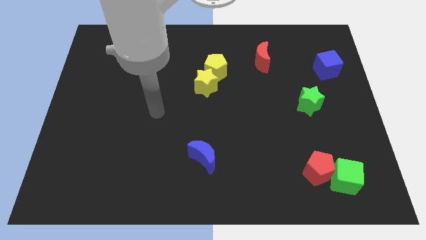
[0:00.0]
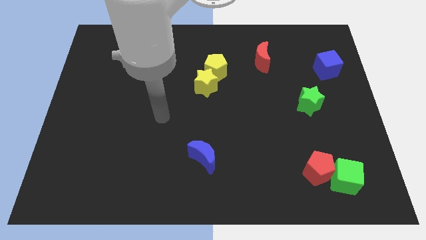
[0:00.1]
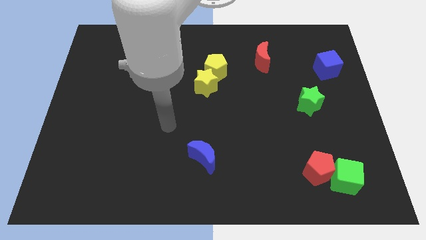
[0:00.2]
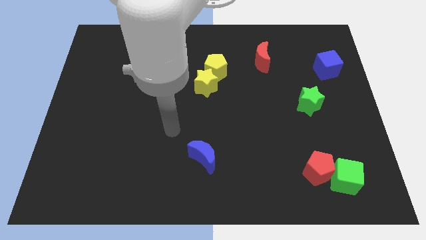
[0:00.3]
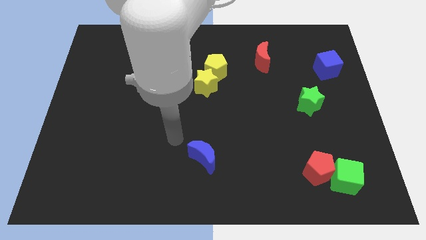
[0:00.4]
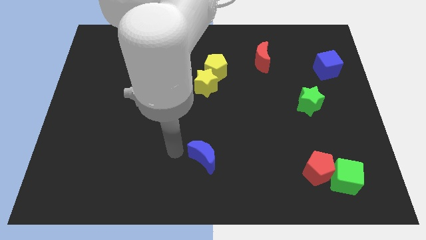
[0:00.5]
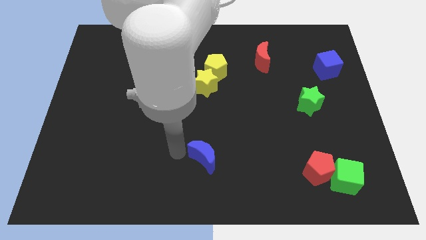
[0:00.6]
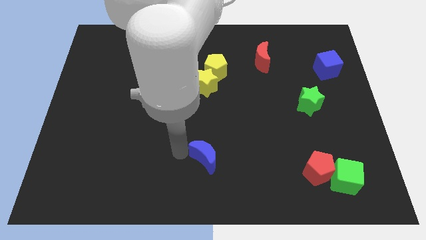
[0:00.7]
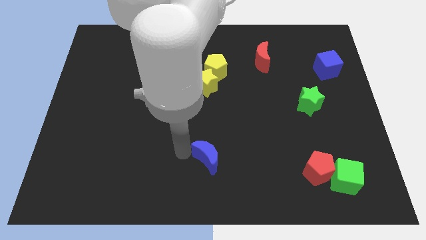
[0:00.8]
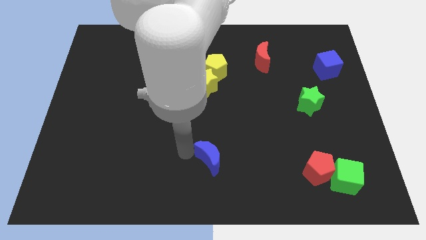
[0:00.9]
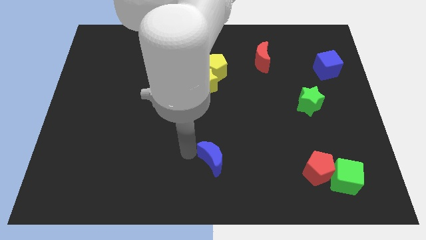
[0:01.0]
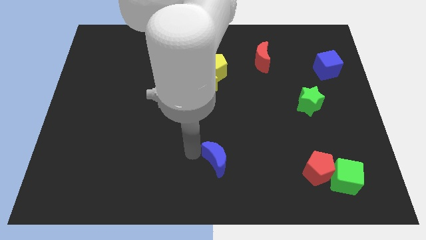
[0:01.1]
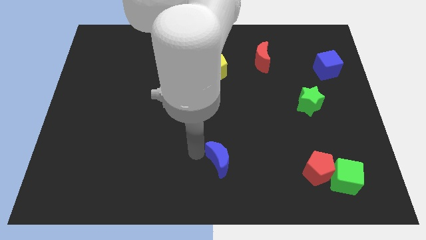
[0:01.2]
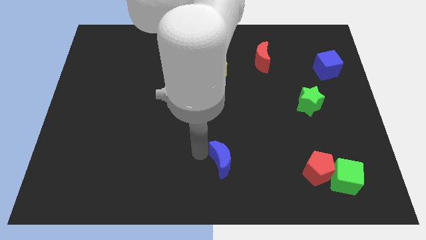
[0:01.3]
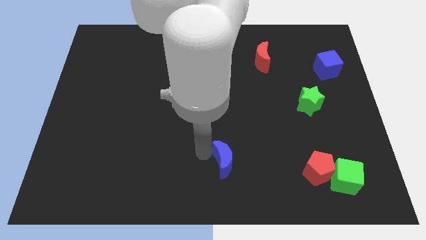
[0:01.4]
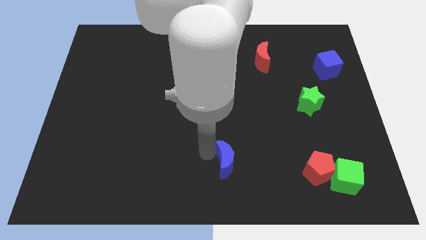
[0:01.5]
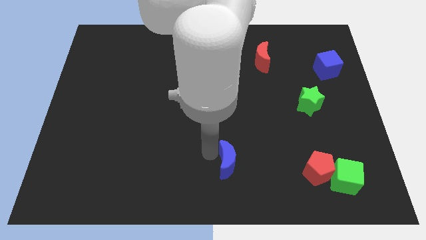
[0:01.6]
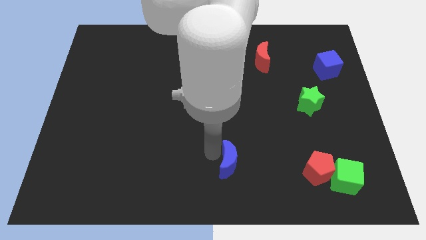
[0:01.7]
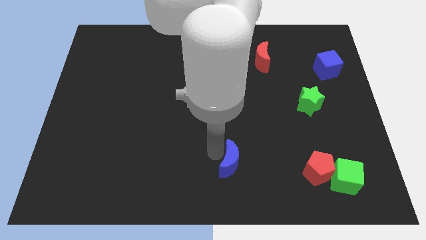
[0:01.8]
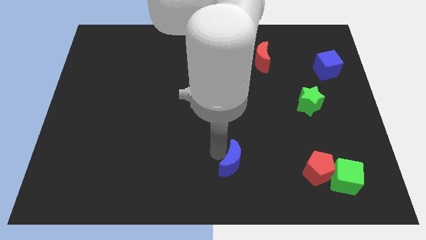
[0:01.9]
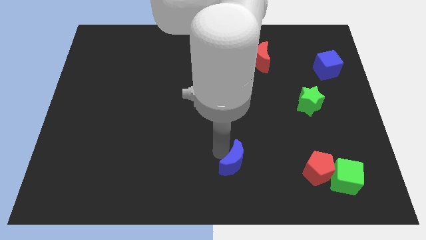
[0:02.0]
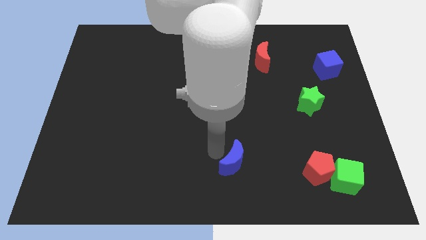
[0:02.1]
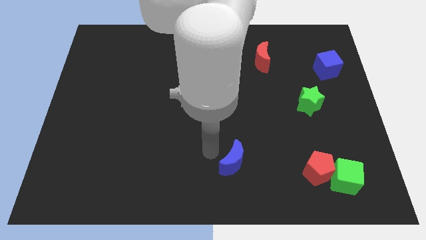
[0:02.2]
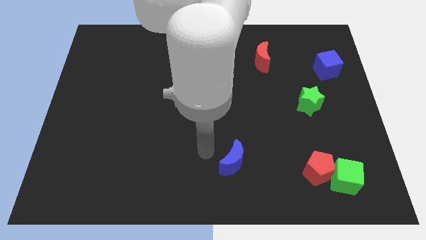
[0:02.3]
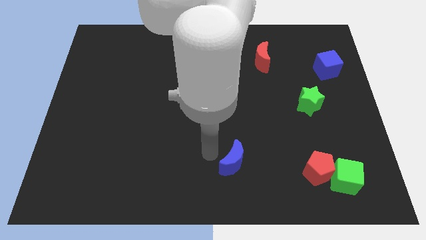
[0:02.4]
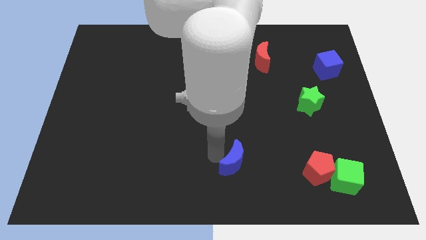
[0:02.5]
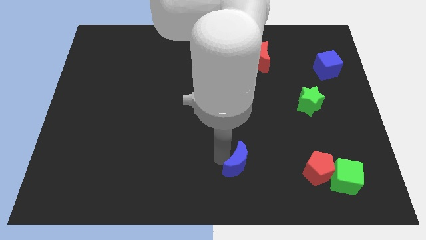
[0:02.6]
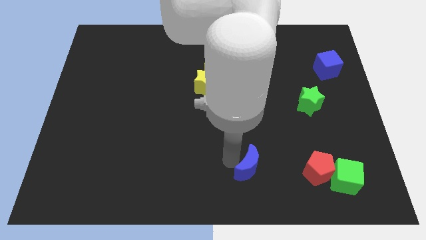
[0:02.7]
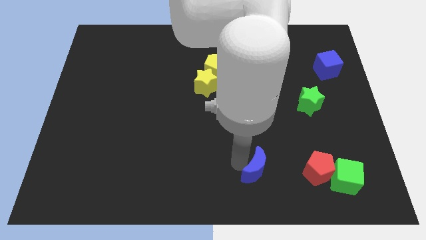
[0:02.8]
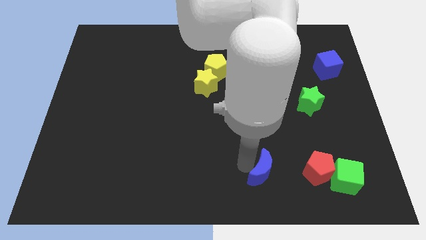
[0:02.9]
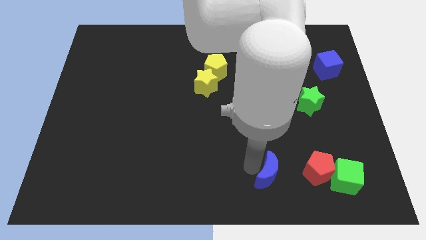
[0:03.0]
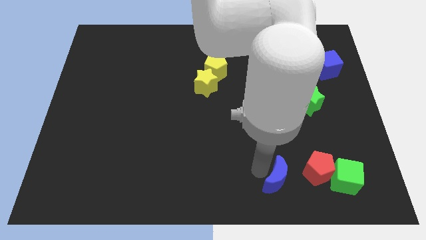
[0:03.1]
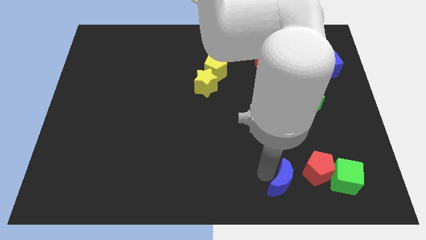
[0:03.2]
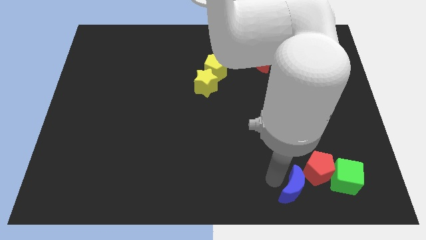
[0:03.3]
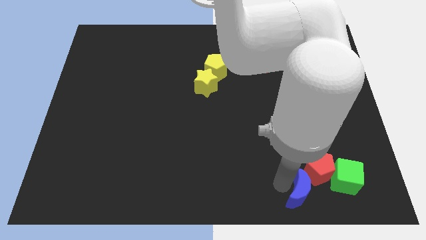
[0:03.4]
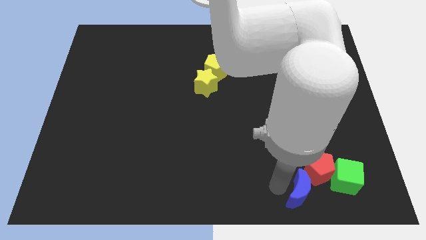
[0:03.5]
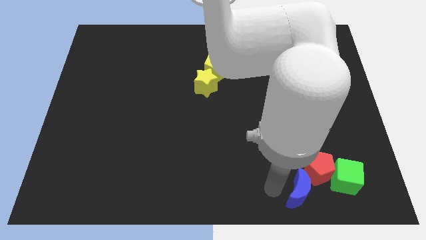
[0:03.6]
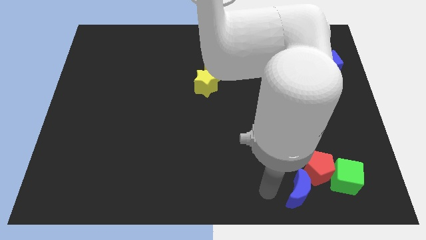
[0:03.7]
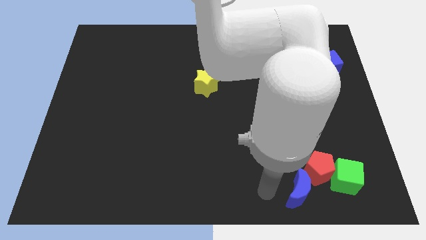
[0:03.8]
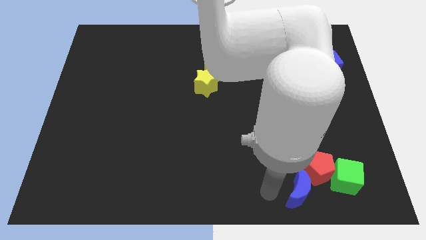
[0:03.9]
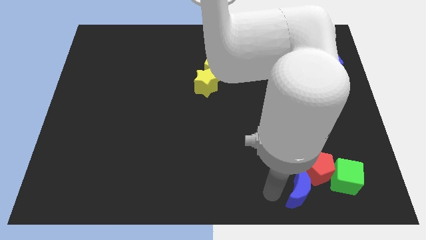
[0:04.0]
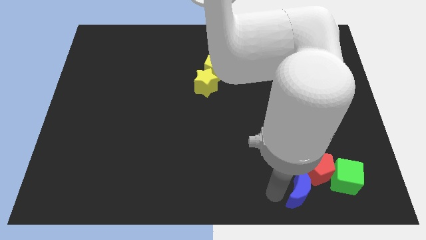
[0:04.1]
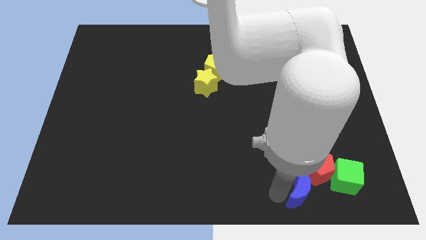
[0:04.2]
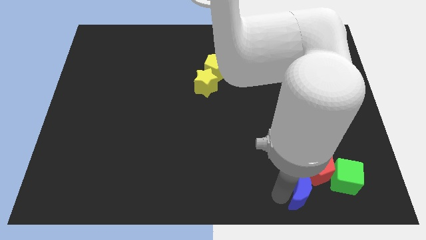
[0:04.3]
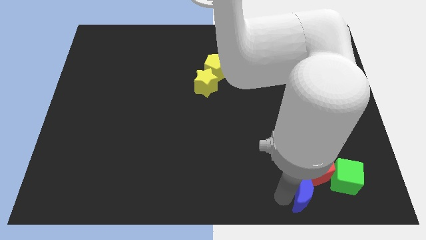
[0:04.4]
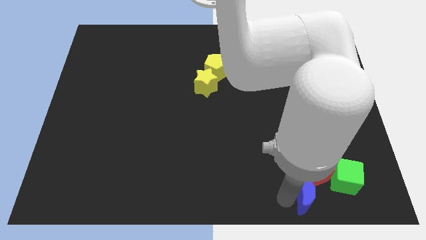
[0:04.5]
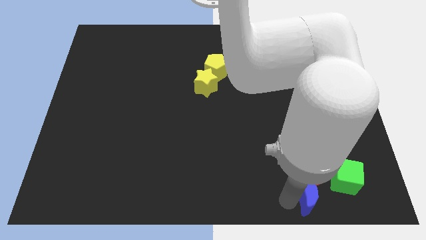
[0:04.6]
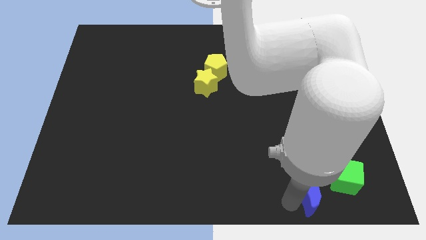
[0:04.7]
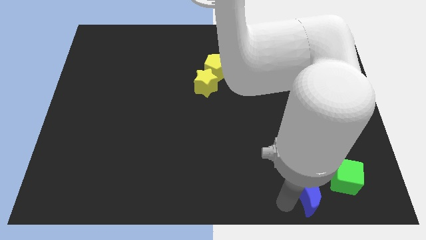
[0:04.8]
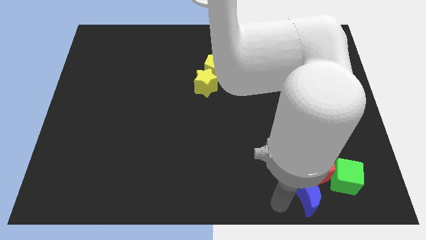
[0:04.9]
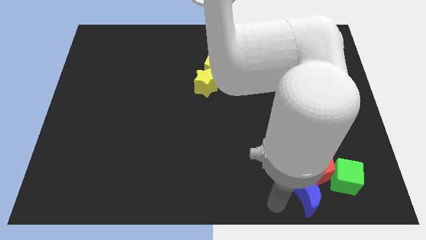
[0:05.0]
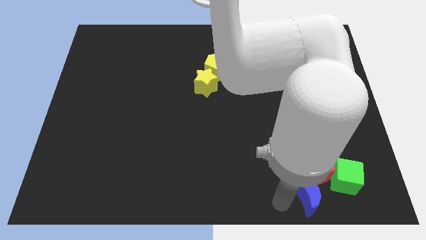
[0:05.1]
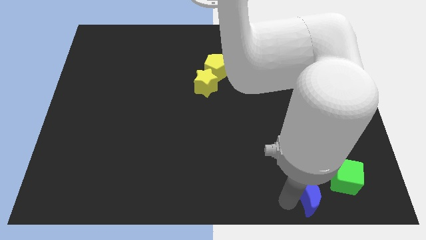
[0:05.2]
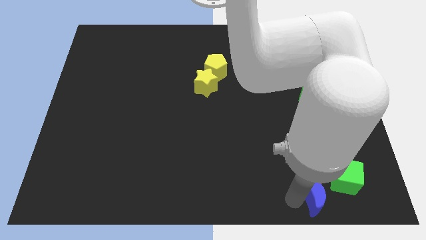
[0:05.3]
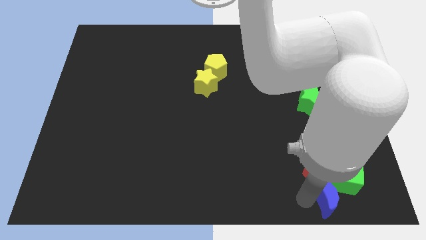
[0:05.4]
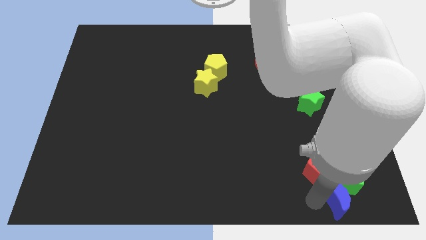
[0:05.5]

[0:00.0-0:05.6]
slide the blue moon towards the green cube

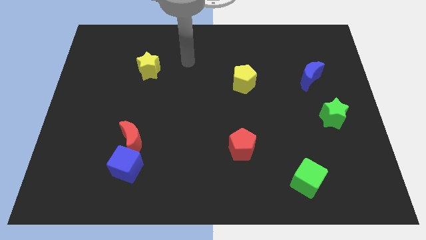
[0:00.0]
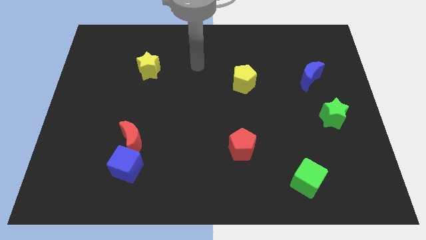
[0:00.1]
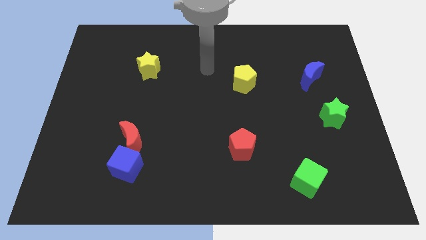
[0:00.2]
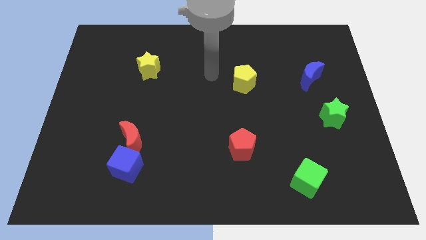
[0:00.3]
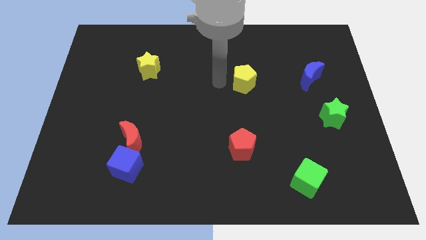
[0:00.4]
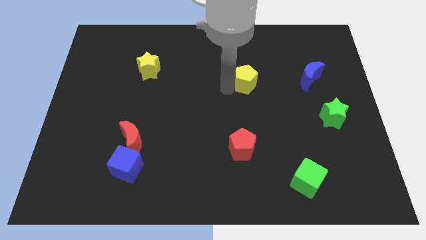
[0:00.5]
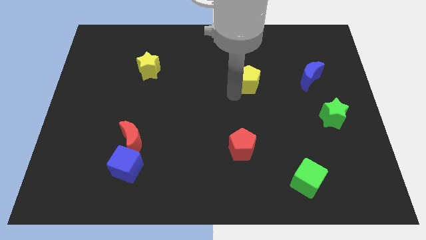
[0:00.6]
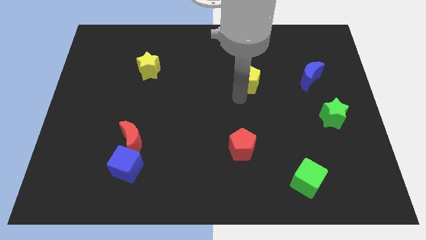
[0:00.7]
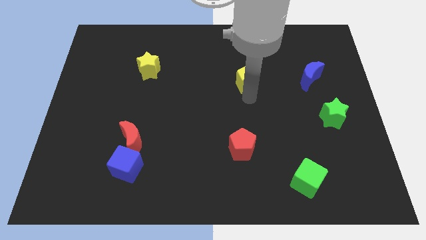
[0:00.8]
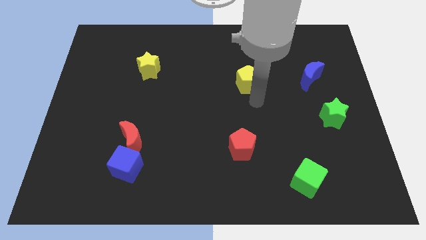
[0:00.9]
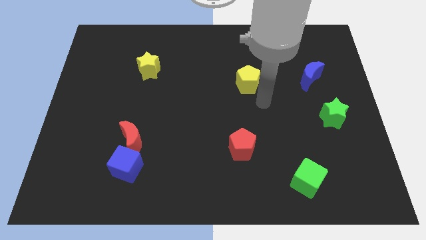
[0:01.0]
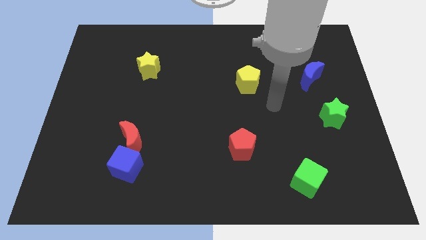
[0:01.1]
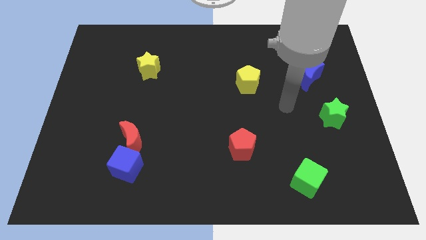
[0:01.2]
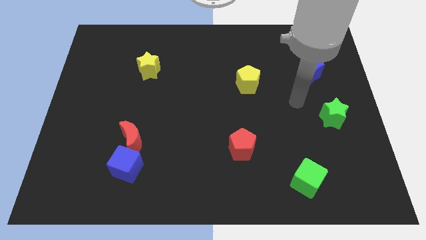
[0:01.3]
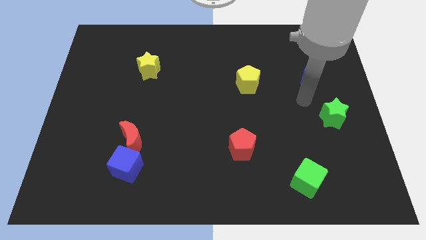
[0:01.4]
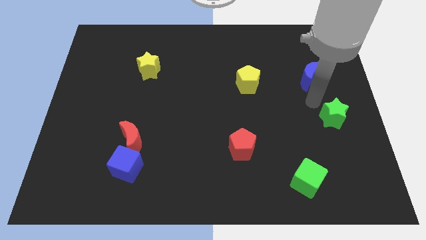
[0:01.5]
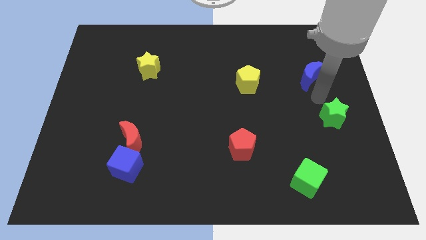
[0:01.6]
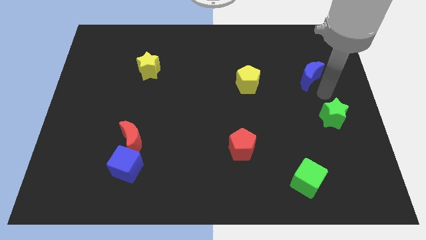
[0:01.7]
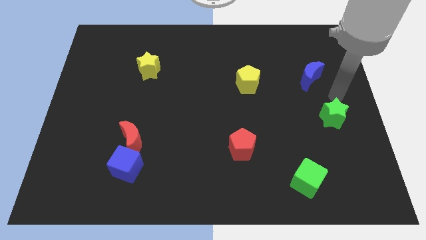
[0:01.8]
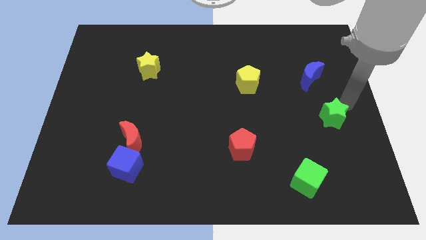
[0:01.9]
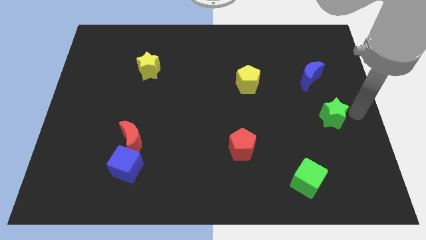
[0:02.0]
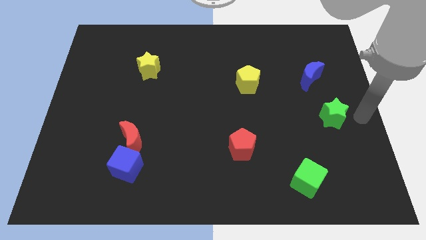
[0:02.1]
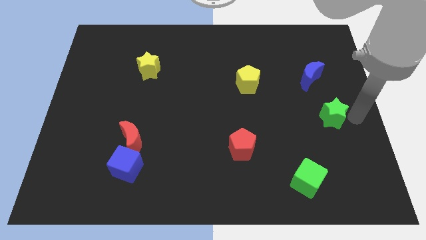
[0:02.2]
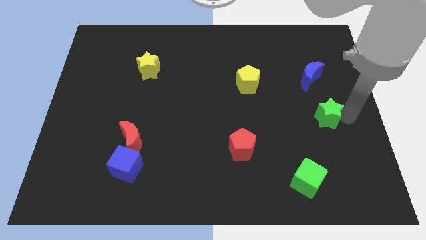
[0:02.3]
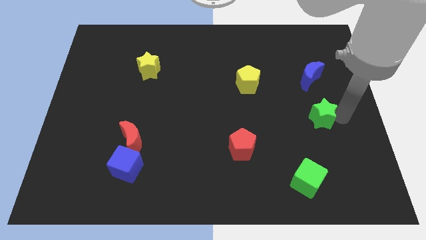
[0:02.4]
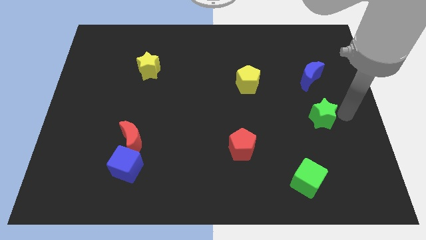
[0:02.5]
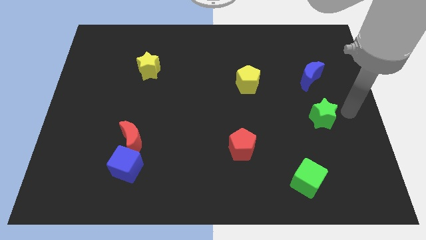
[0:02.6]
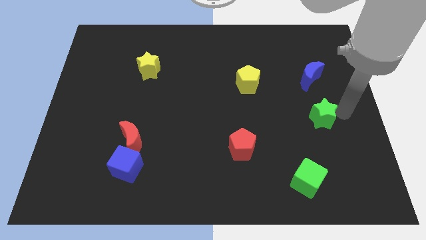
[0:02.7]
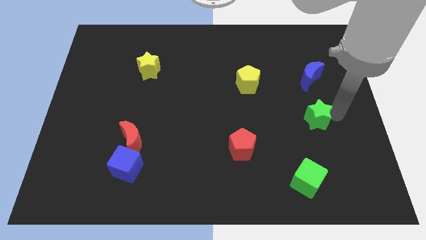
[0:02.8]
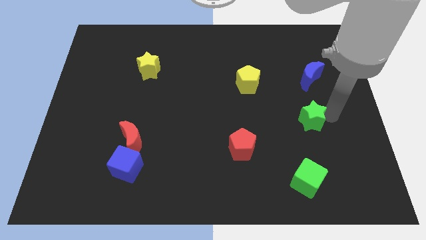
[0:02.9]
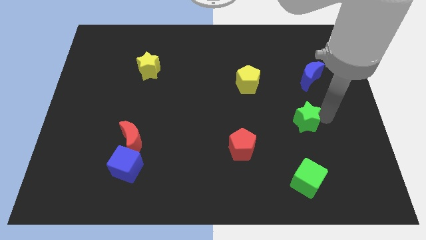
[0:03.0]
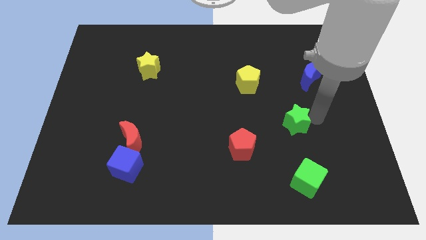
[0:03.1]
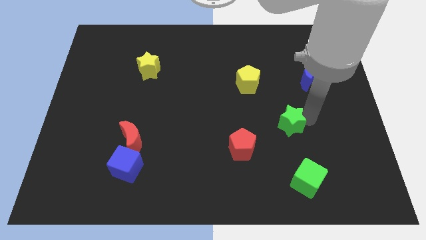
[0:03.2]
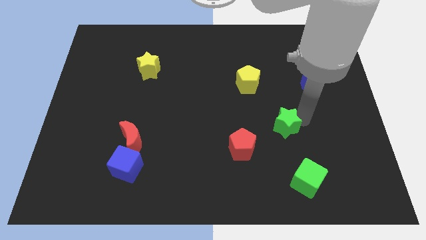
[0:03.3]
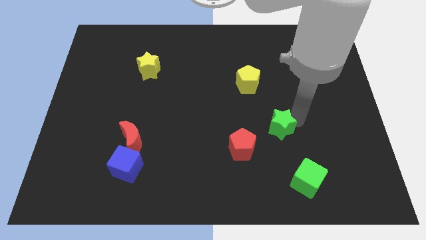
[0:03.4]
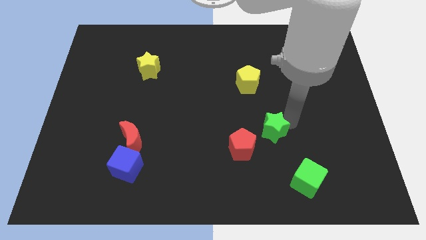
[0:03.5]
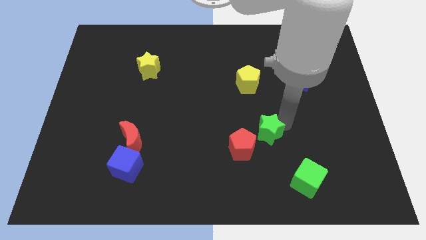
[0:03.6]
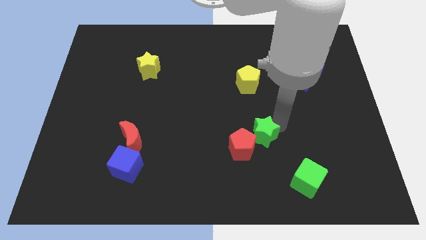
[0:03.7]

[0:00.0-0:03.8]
move the green star close to the red pentagon
